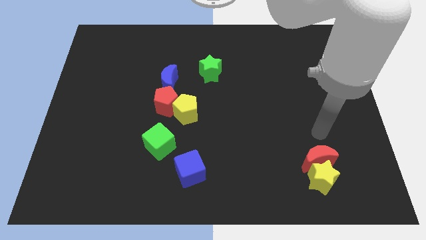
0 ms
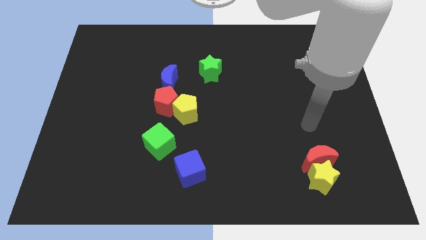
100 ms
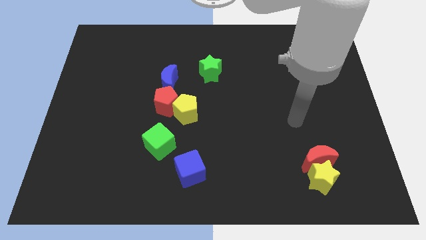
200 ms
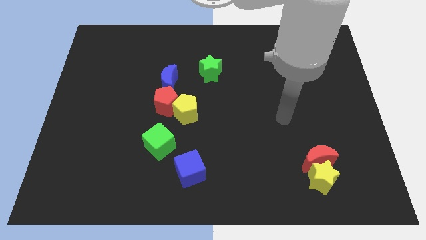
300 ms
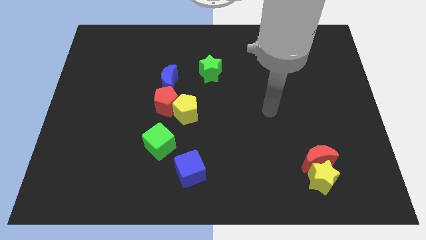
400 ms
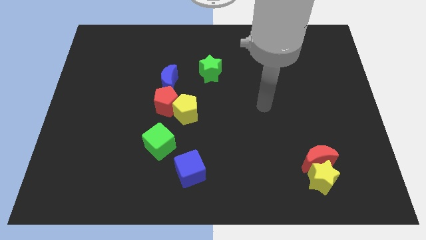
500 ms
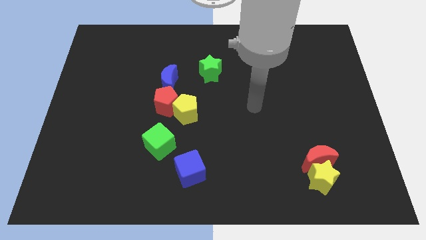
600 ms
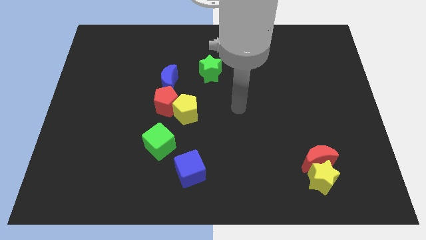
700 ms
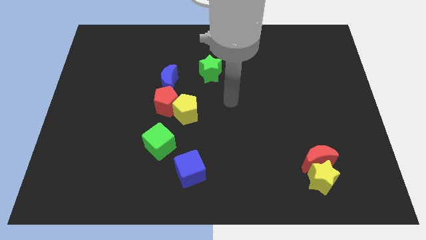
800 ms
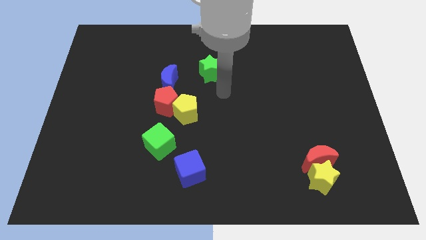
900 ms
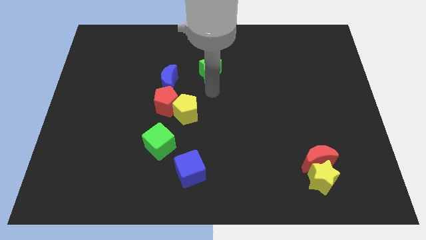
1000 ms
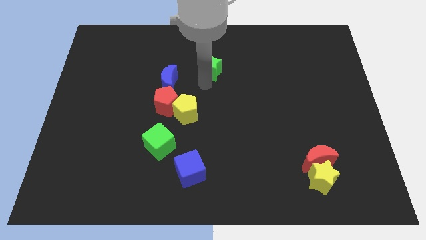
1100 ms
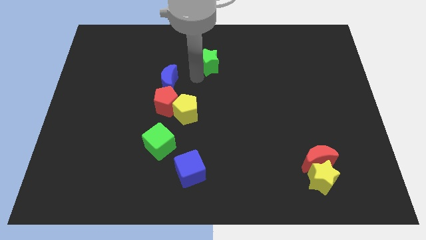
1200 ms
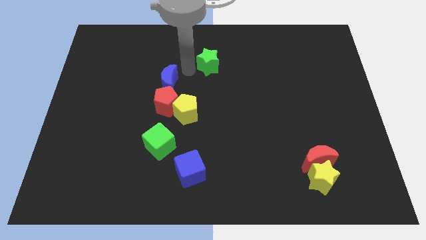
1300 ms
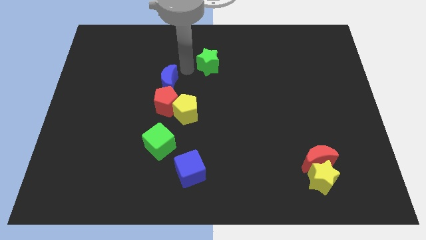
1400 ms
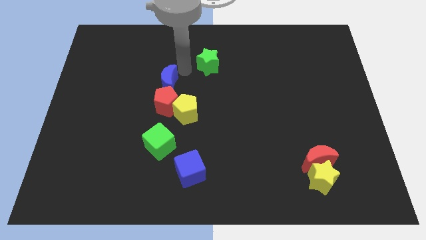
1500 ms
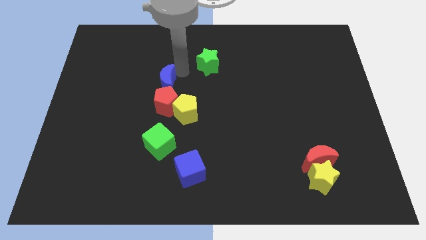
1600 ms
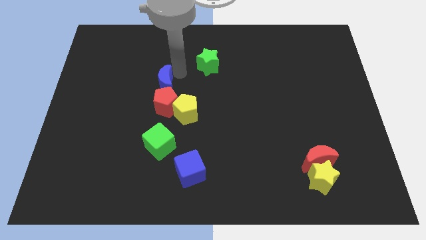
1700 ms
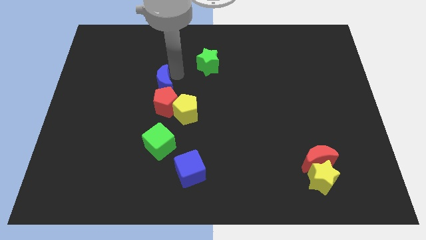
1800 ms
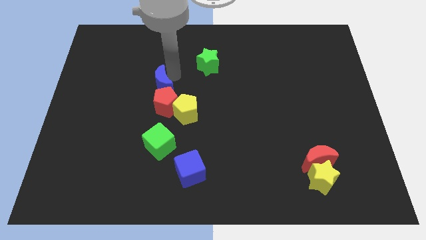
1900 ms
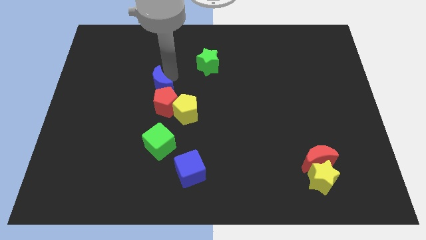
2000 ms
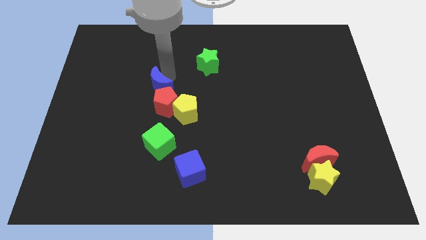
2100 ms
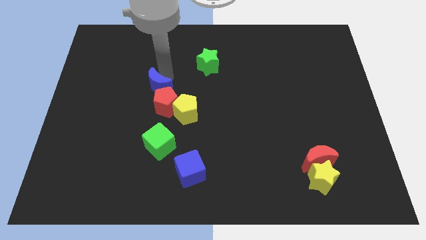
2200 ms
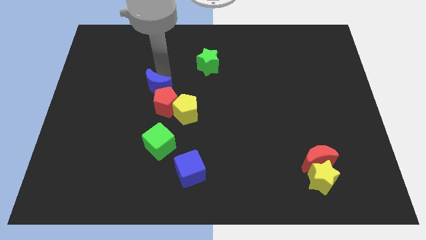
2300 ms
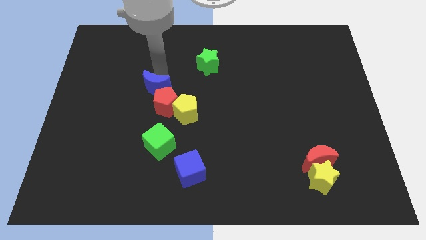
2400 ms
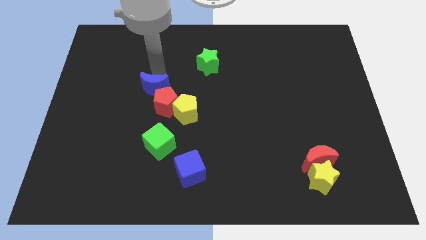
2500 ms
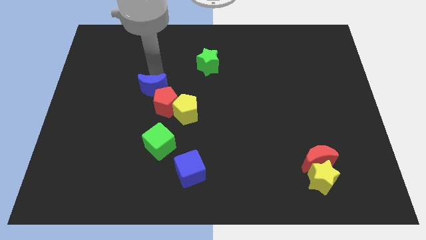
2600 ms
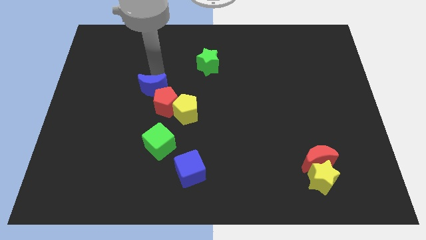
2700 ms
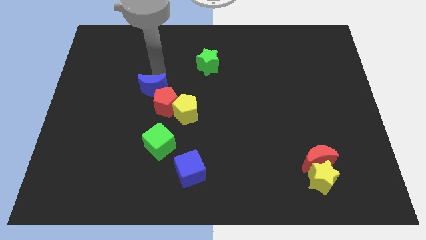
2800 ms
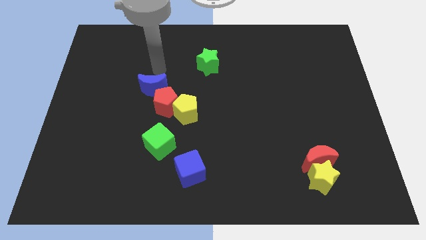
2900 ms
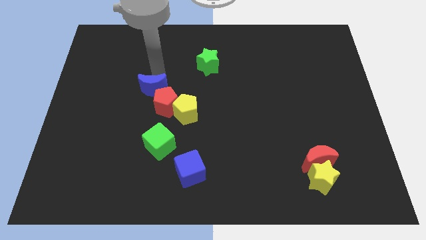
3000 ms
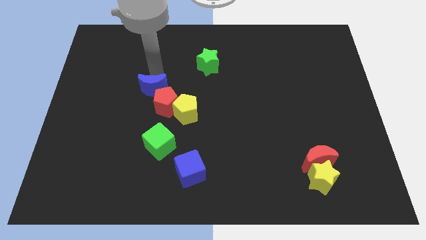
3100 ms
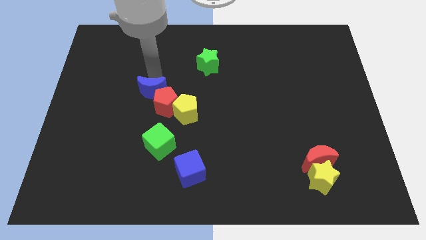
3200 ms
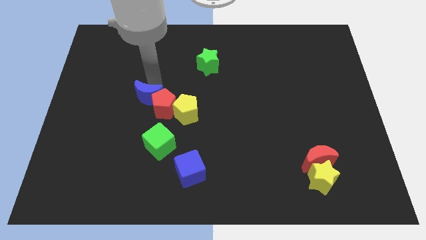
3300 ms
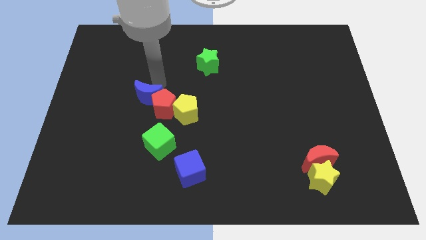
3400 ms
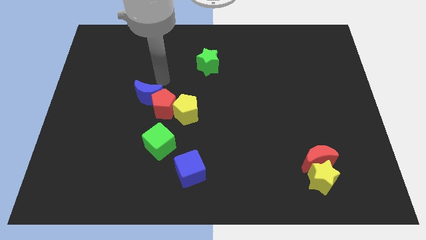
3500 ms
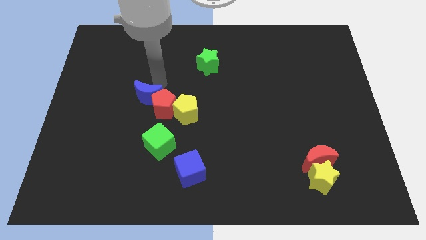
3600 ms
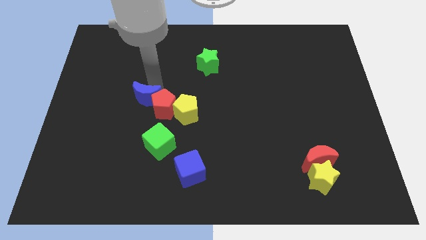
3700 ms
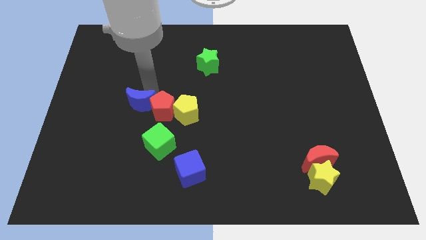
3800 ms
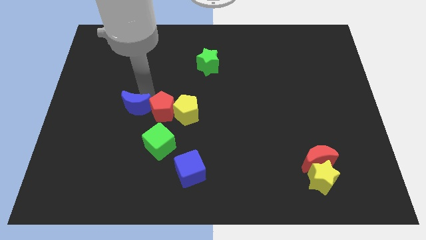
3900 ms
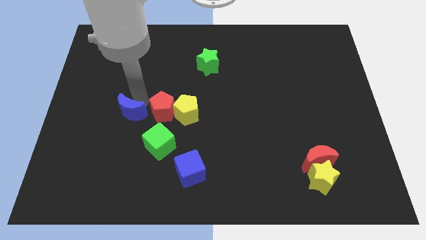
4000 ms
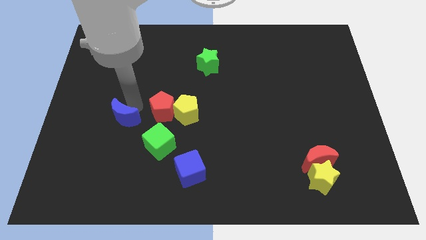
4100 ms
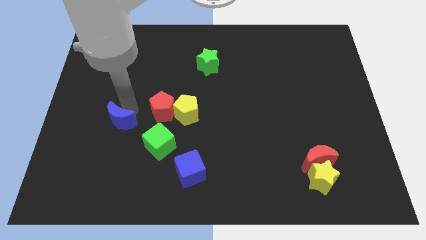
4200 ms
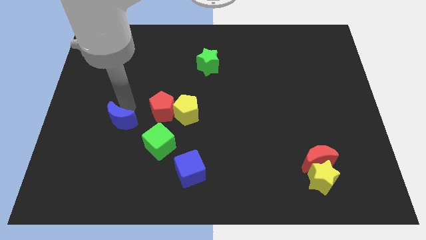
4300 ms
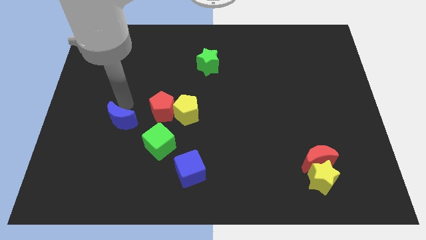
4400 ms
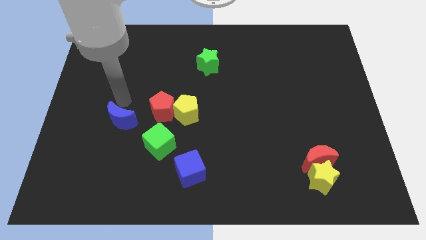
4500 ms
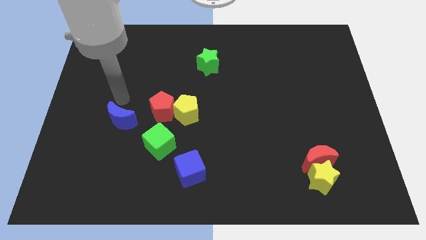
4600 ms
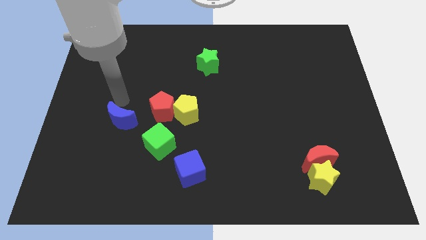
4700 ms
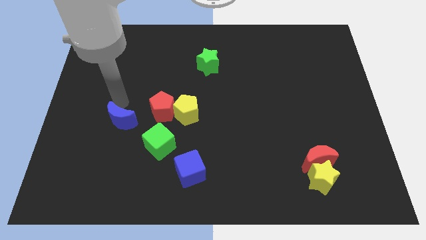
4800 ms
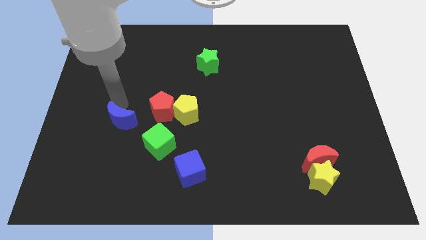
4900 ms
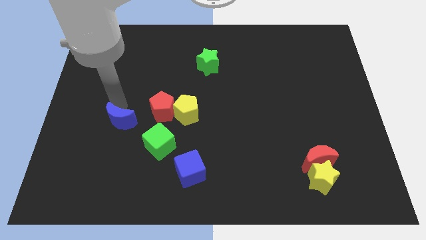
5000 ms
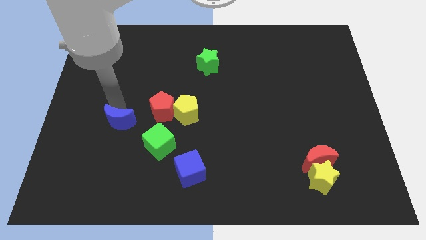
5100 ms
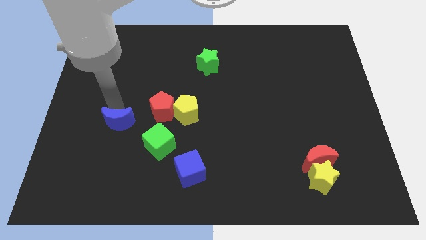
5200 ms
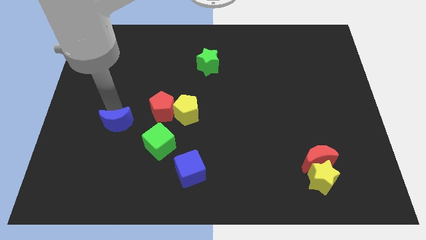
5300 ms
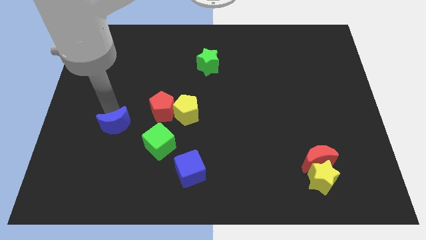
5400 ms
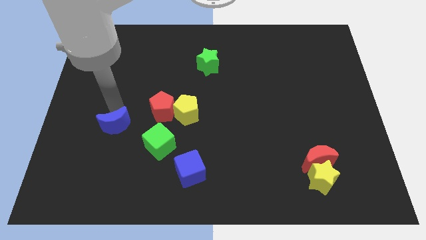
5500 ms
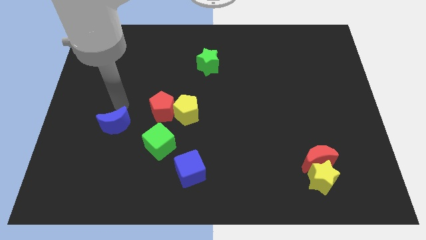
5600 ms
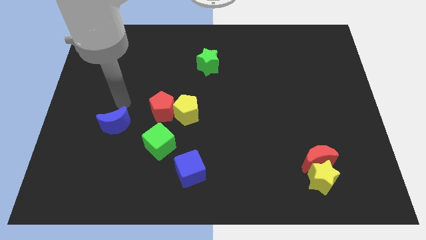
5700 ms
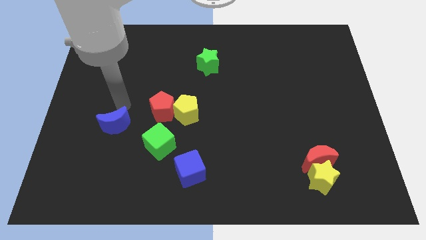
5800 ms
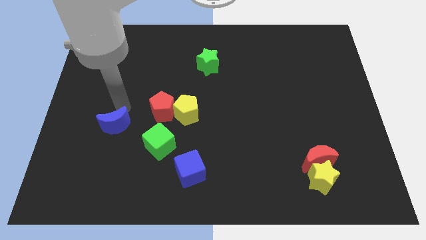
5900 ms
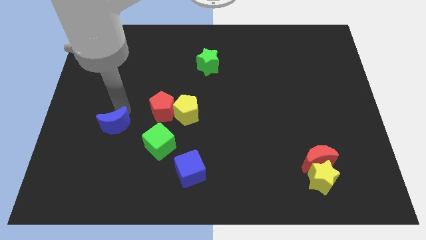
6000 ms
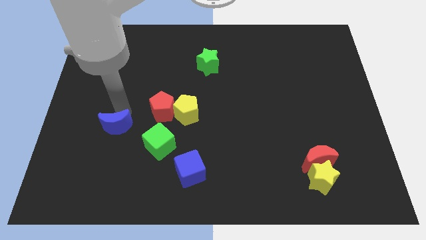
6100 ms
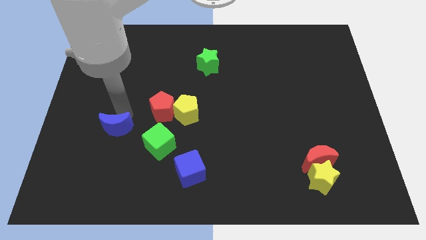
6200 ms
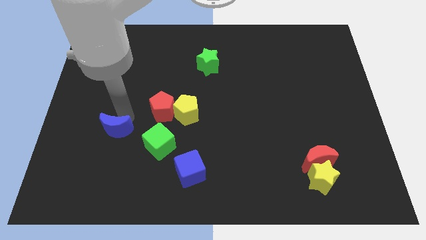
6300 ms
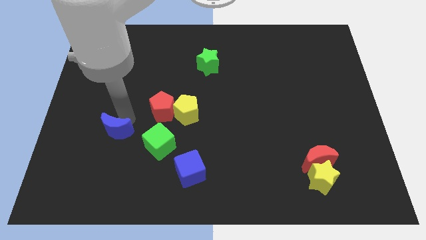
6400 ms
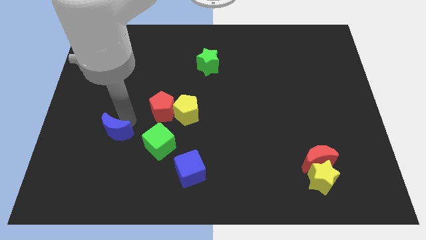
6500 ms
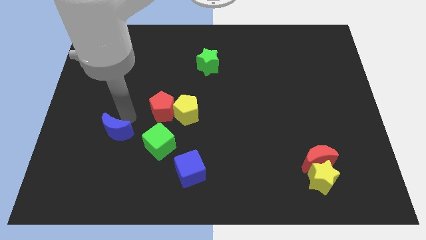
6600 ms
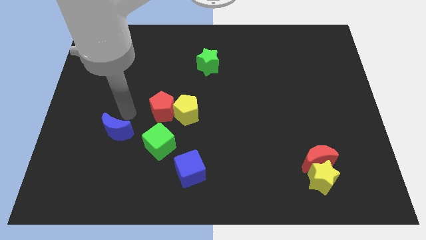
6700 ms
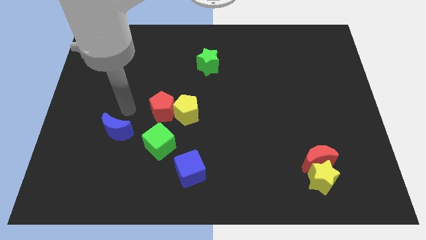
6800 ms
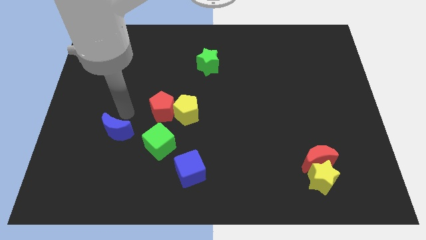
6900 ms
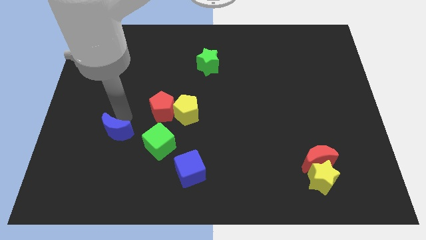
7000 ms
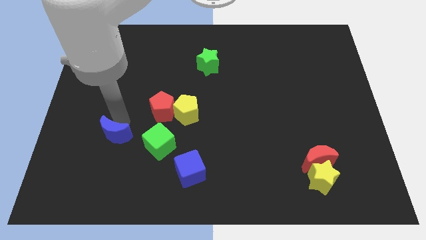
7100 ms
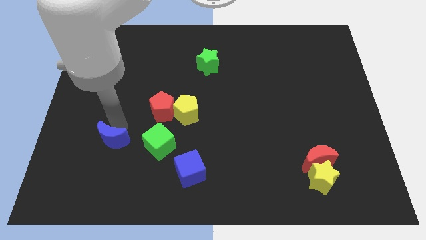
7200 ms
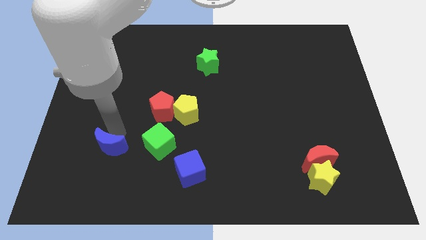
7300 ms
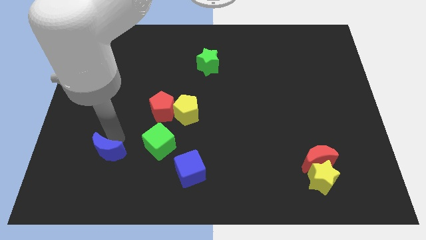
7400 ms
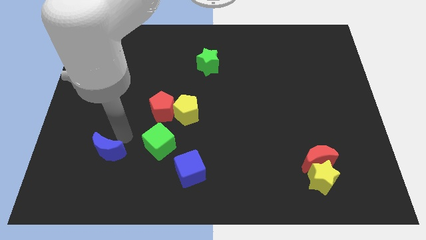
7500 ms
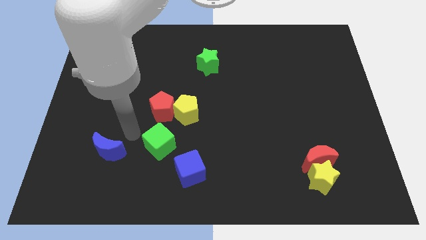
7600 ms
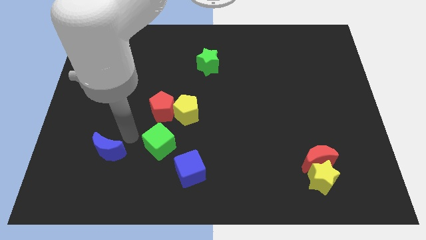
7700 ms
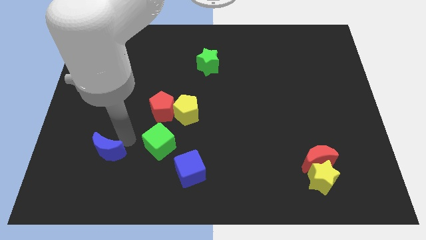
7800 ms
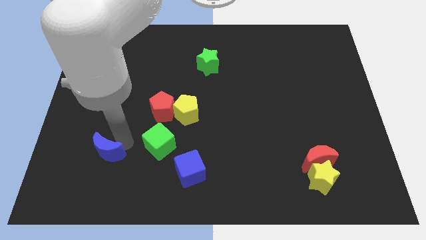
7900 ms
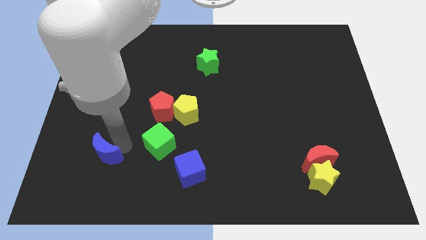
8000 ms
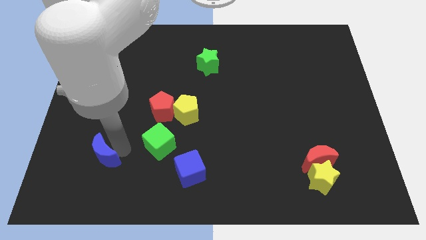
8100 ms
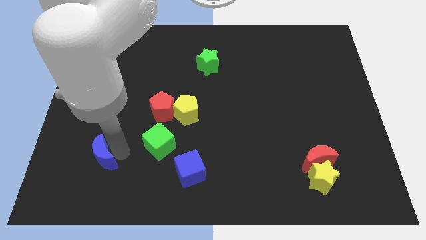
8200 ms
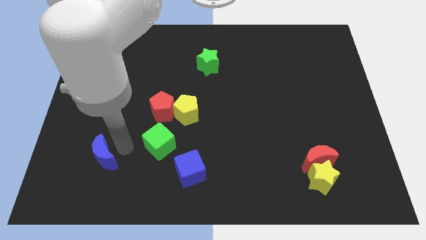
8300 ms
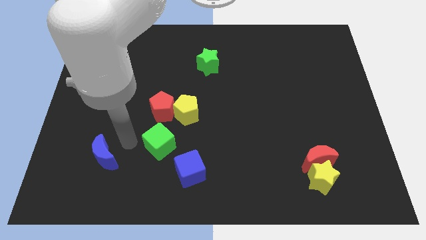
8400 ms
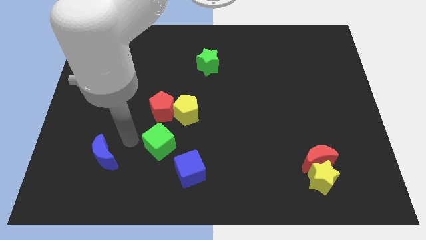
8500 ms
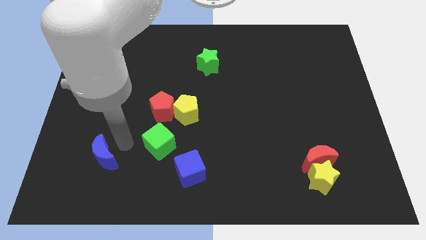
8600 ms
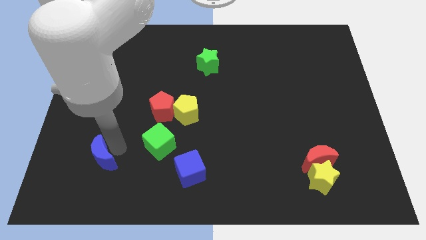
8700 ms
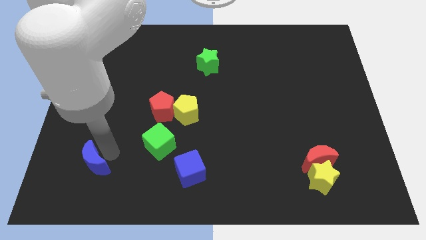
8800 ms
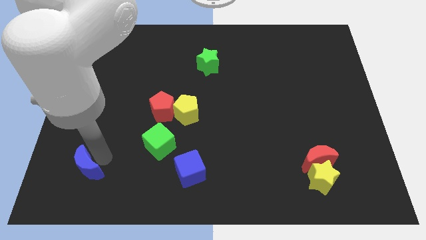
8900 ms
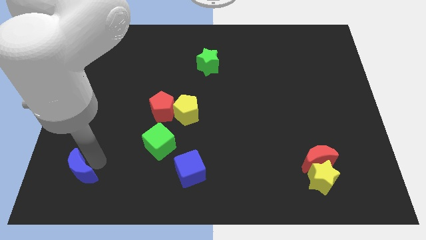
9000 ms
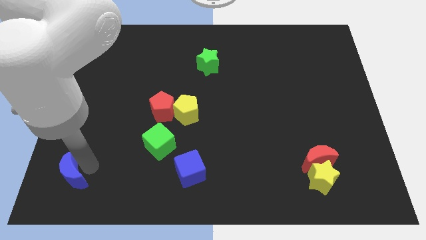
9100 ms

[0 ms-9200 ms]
put the blue moon to the bottom left of the board
